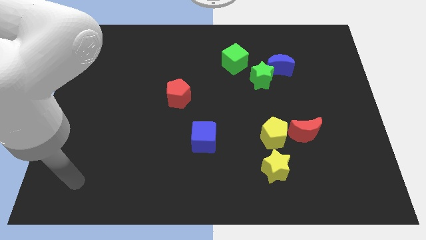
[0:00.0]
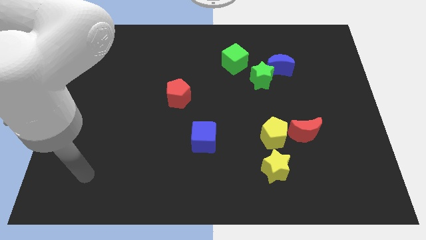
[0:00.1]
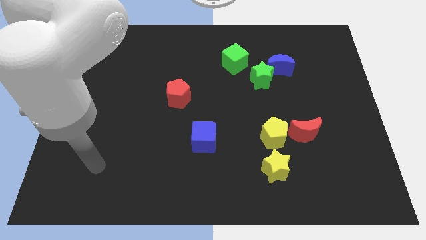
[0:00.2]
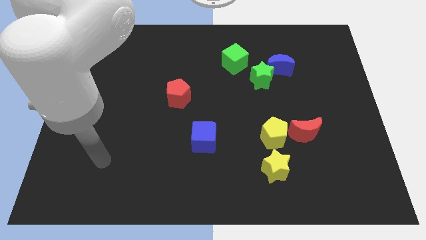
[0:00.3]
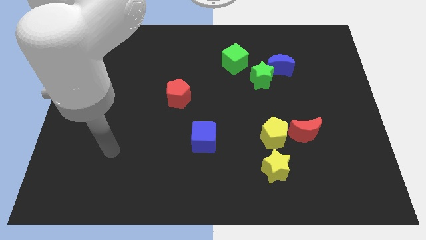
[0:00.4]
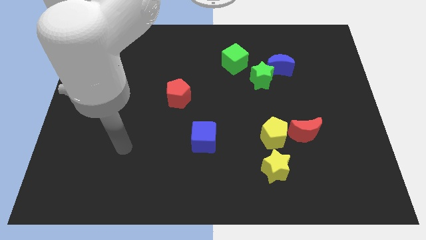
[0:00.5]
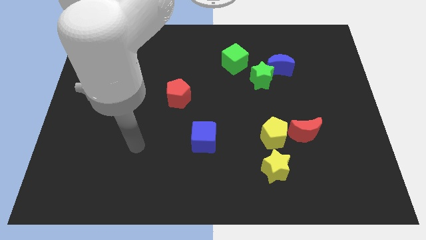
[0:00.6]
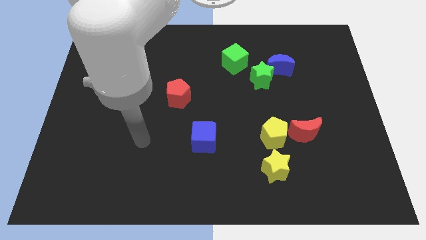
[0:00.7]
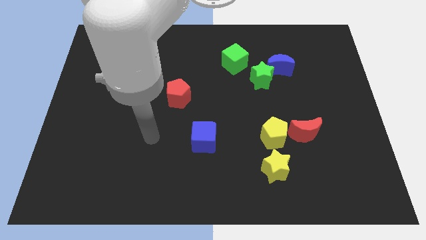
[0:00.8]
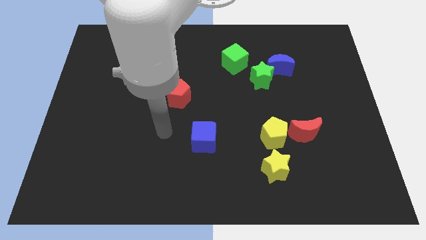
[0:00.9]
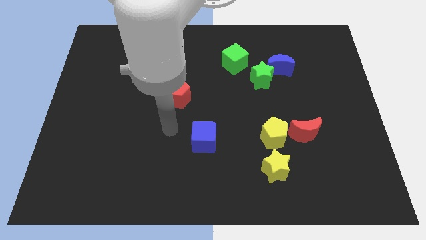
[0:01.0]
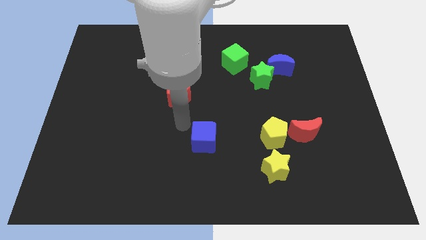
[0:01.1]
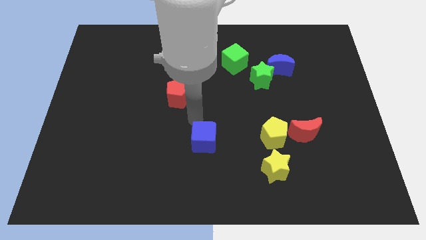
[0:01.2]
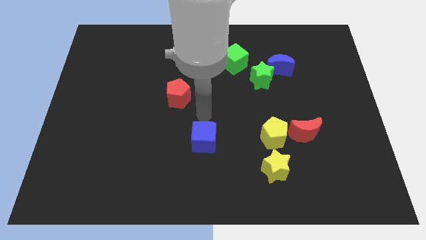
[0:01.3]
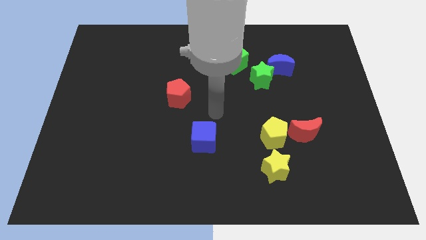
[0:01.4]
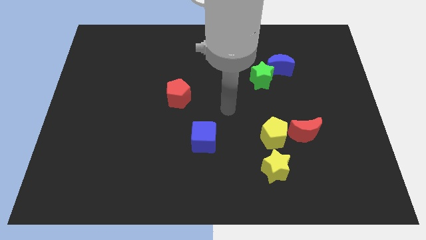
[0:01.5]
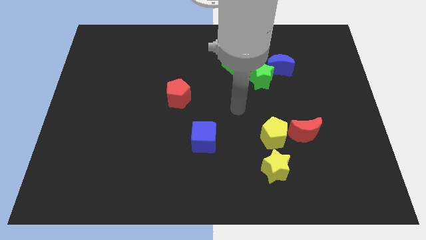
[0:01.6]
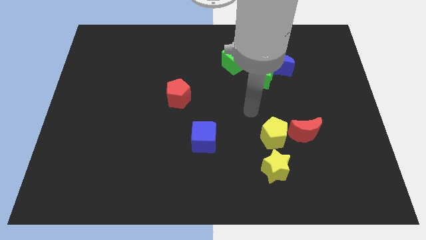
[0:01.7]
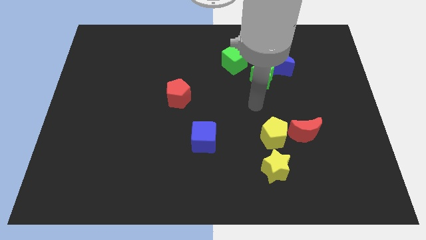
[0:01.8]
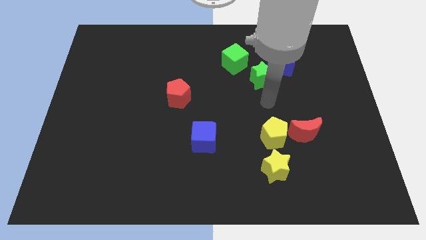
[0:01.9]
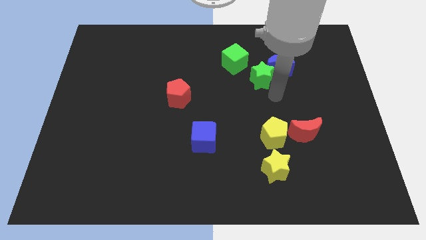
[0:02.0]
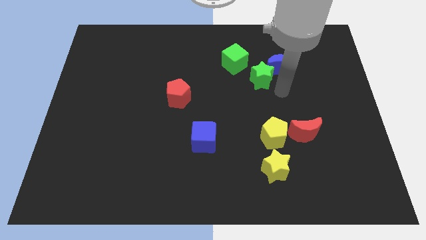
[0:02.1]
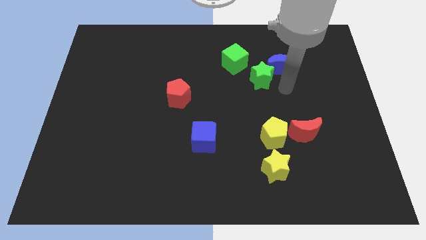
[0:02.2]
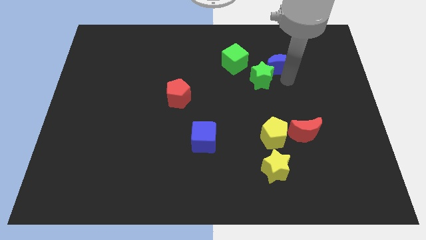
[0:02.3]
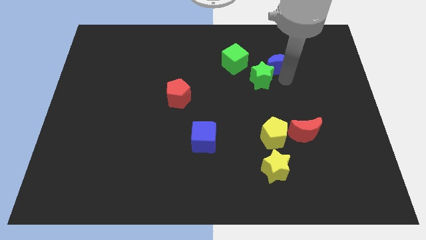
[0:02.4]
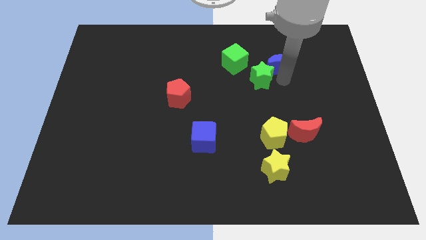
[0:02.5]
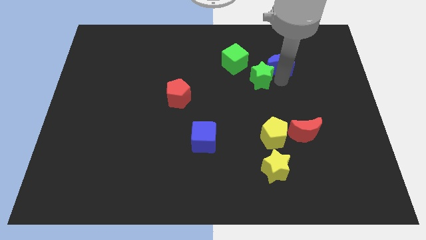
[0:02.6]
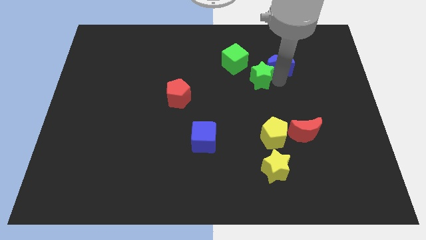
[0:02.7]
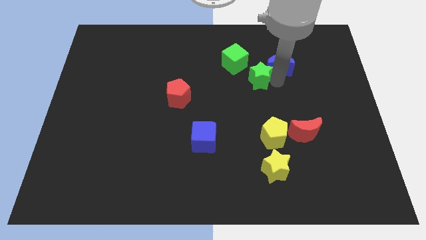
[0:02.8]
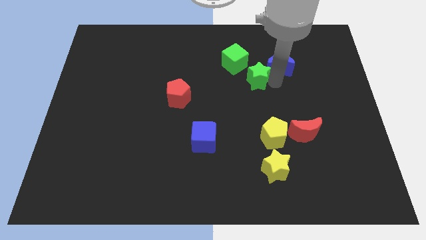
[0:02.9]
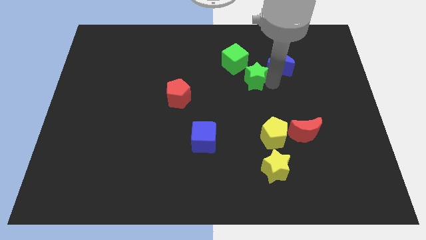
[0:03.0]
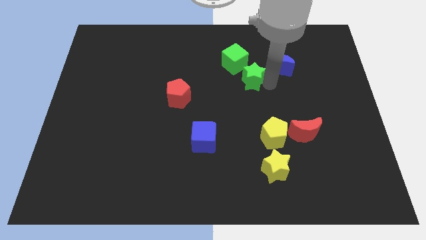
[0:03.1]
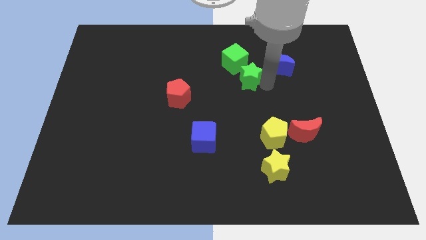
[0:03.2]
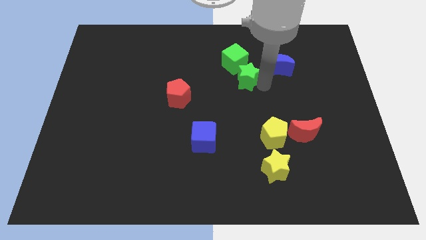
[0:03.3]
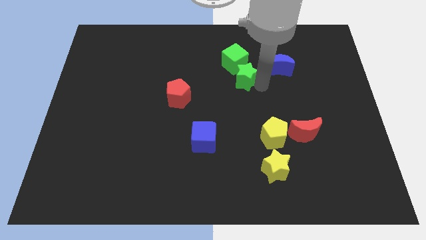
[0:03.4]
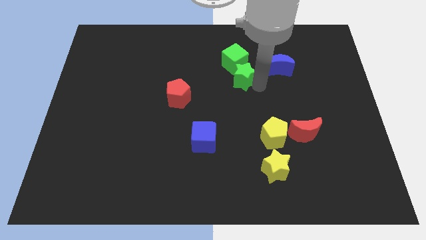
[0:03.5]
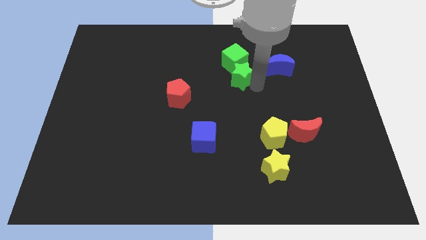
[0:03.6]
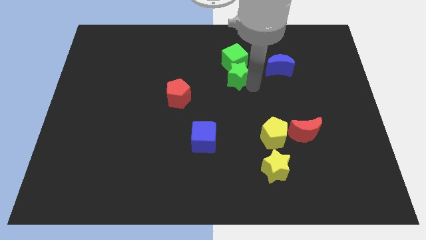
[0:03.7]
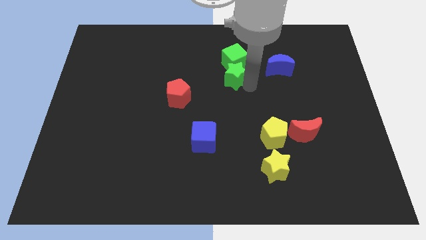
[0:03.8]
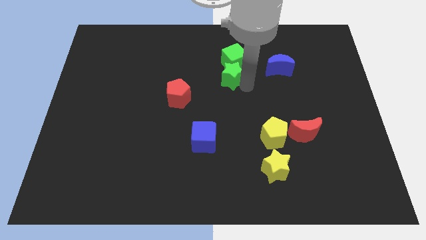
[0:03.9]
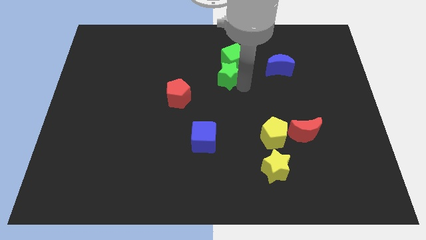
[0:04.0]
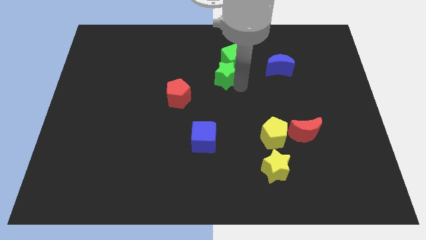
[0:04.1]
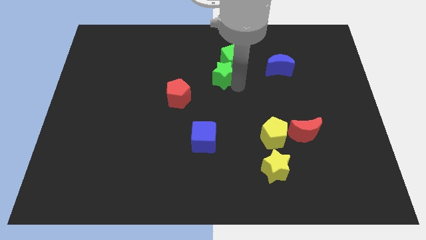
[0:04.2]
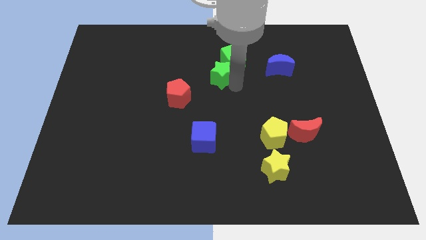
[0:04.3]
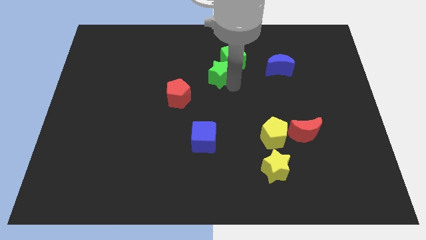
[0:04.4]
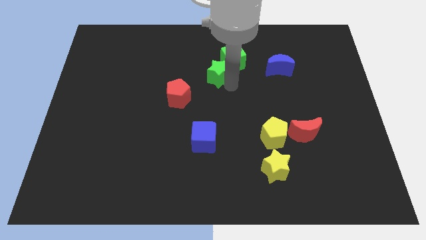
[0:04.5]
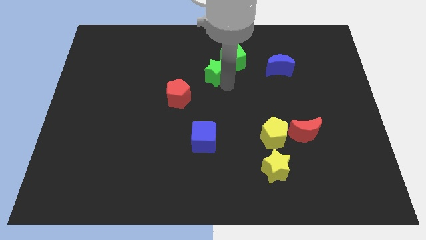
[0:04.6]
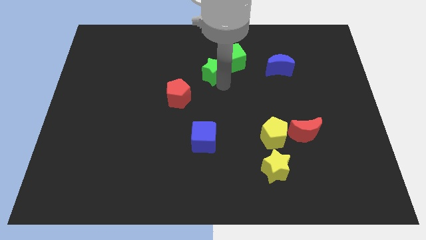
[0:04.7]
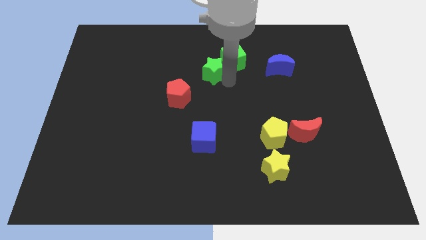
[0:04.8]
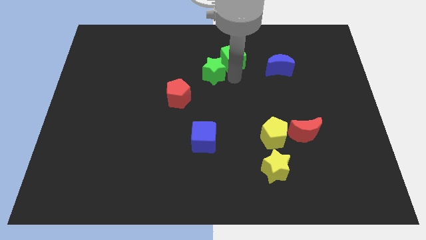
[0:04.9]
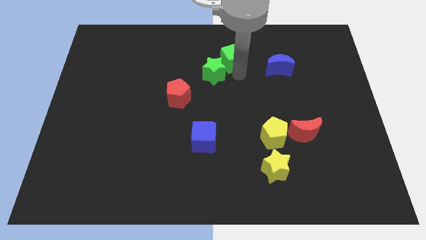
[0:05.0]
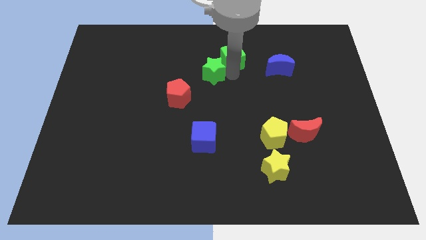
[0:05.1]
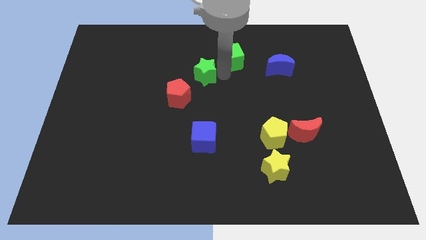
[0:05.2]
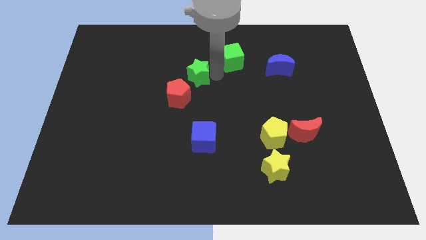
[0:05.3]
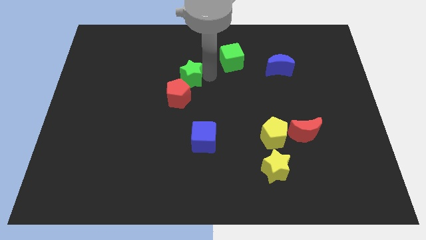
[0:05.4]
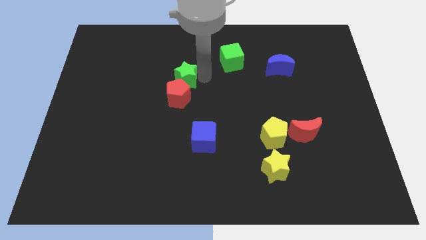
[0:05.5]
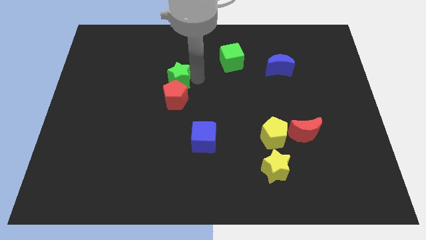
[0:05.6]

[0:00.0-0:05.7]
slide the green star left

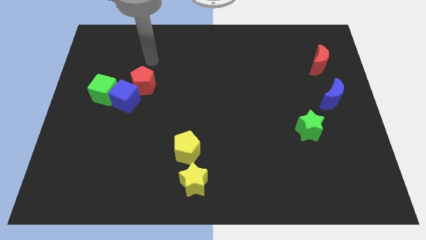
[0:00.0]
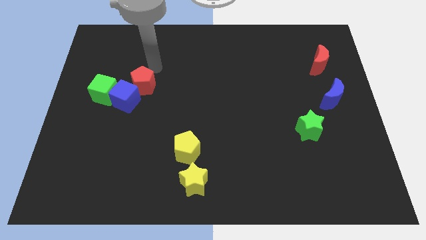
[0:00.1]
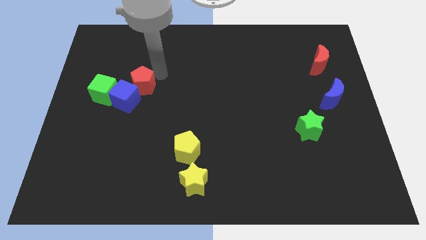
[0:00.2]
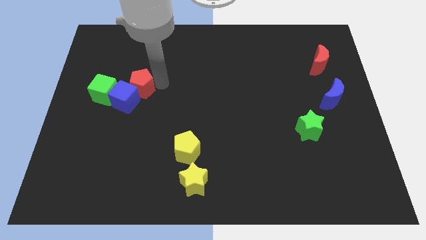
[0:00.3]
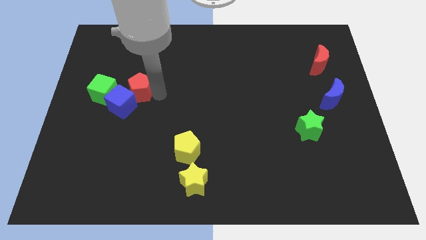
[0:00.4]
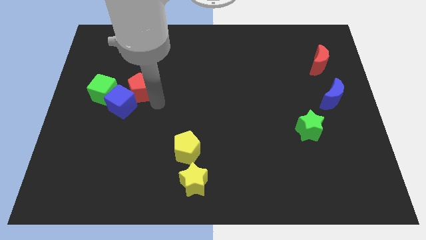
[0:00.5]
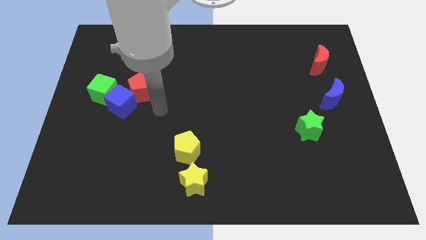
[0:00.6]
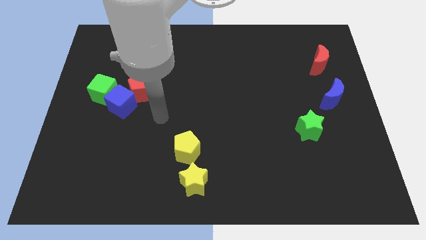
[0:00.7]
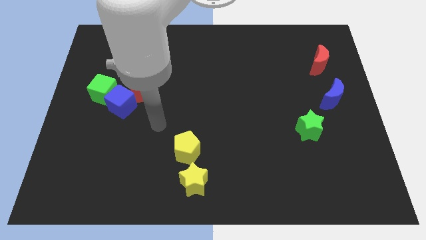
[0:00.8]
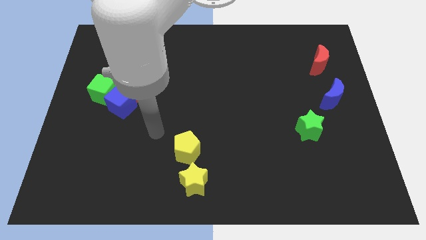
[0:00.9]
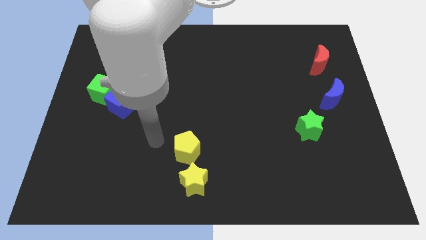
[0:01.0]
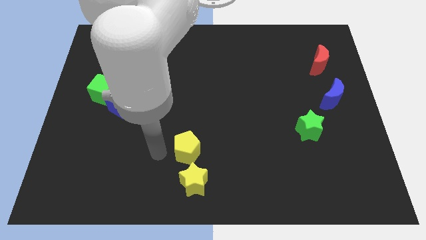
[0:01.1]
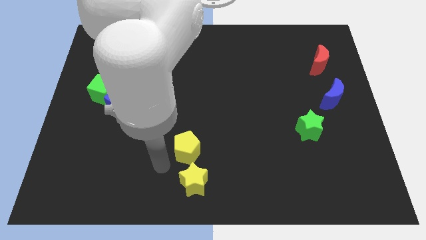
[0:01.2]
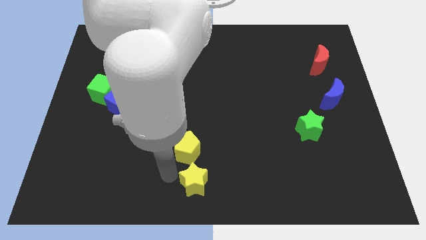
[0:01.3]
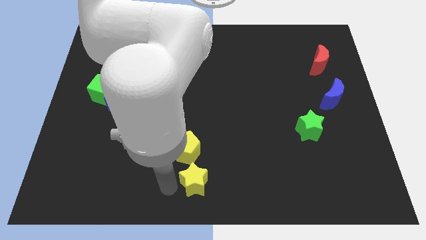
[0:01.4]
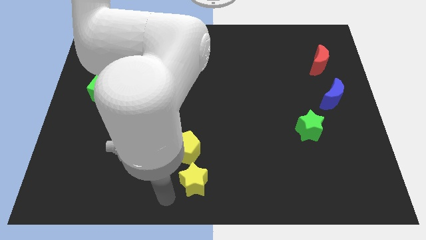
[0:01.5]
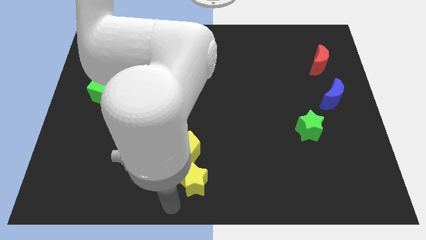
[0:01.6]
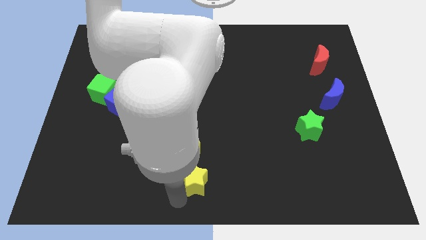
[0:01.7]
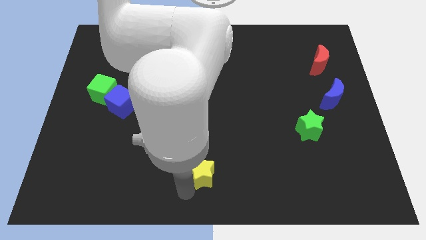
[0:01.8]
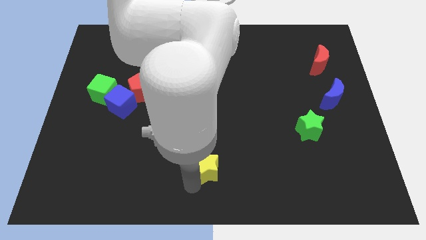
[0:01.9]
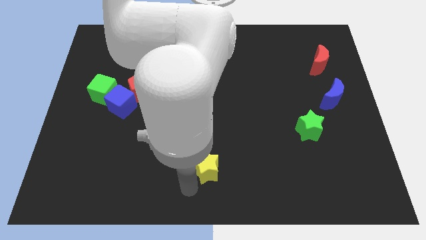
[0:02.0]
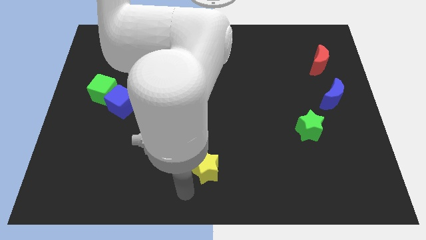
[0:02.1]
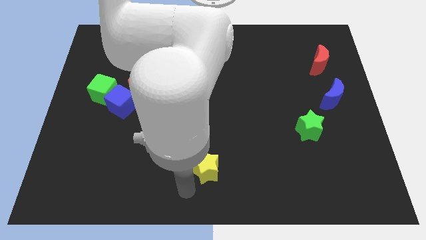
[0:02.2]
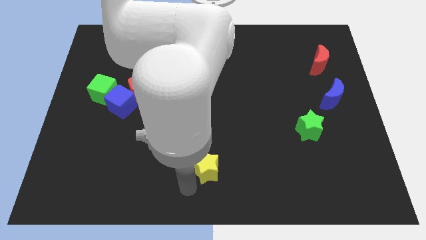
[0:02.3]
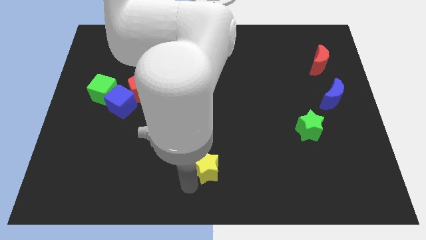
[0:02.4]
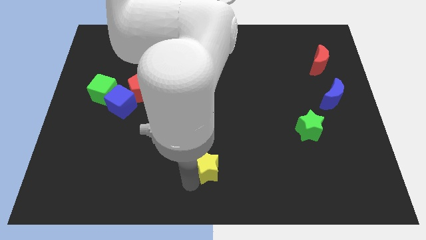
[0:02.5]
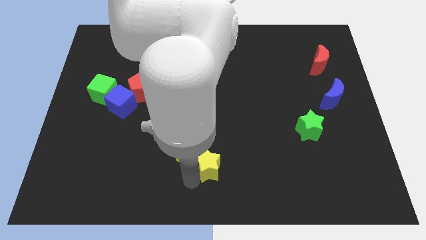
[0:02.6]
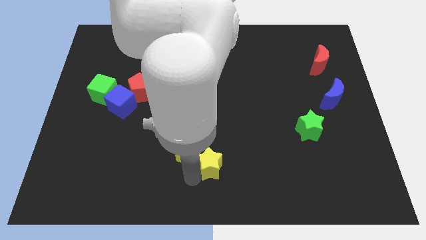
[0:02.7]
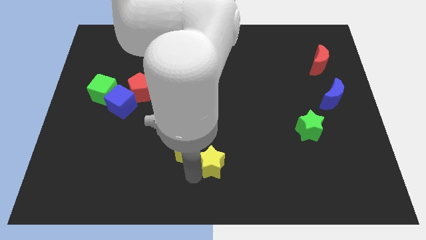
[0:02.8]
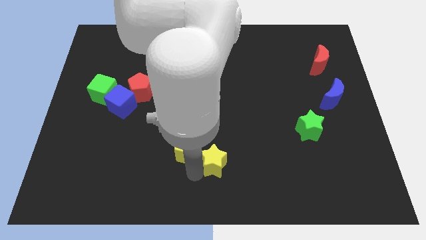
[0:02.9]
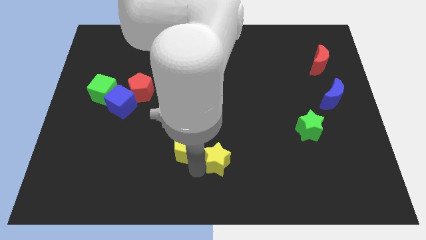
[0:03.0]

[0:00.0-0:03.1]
push the yellow star up and to the right diagonally a little
